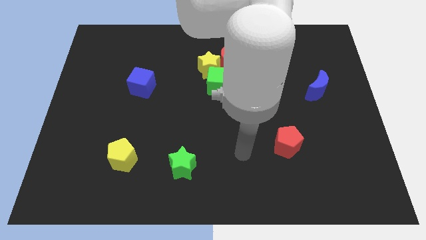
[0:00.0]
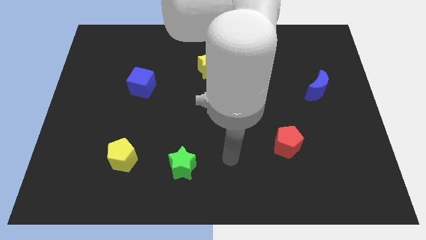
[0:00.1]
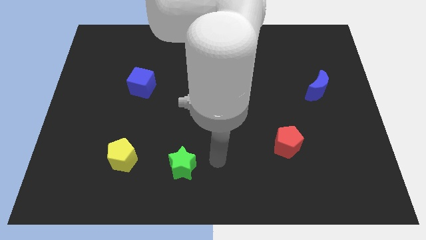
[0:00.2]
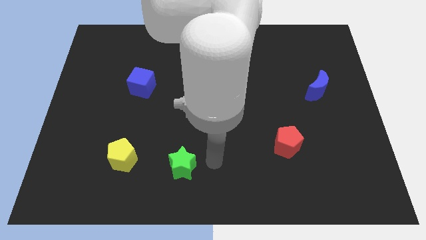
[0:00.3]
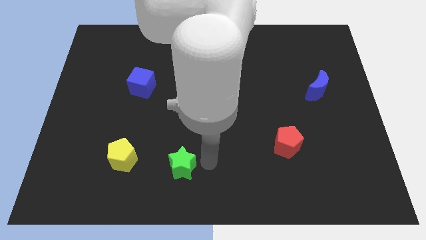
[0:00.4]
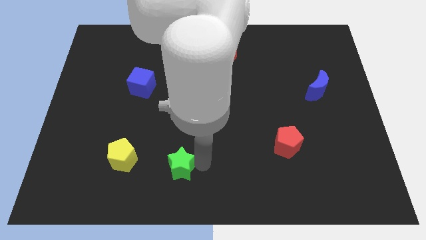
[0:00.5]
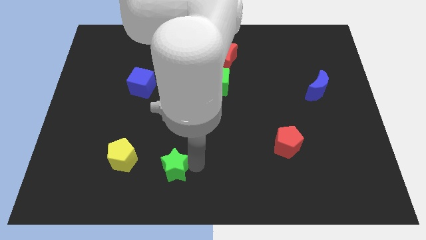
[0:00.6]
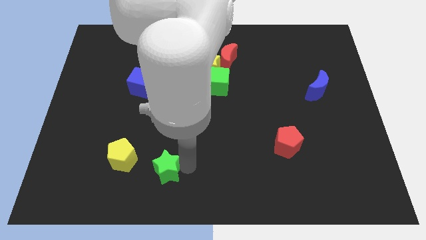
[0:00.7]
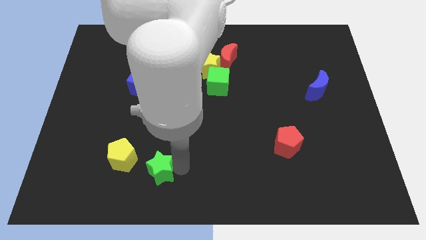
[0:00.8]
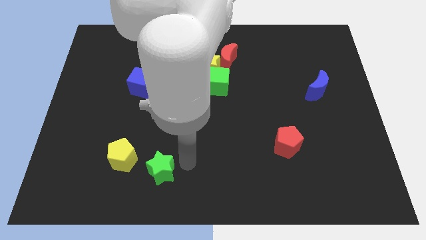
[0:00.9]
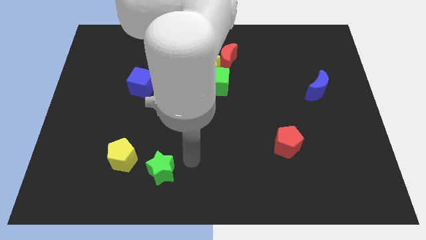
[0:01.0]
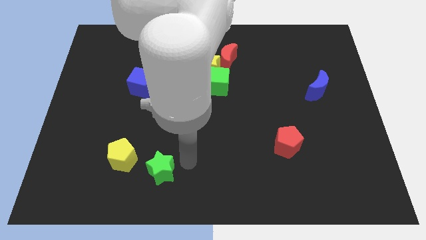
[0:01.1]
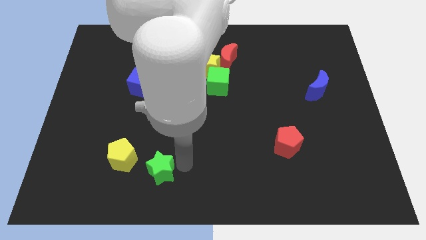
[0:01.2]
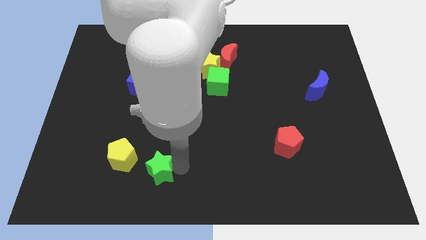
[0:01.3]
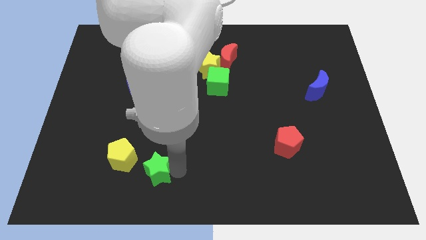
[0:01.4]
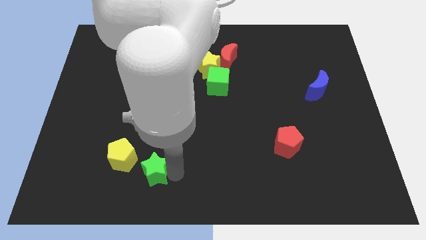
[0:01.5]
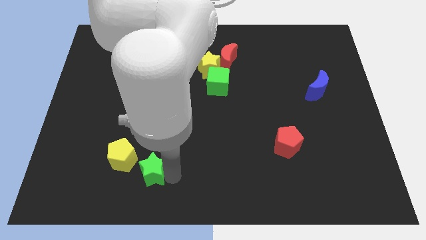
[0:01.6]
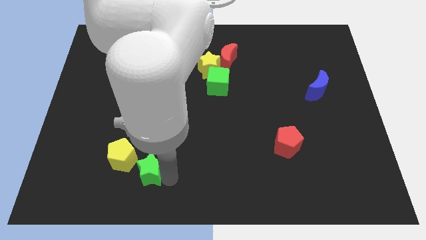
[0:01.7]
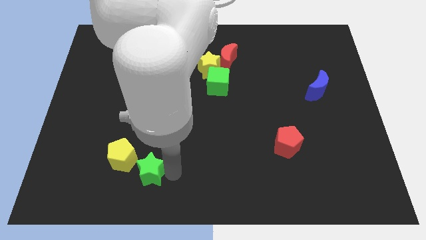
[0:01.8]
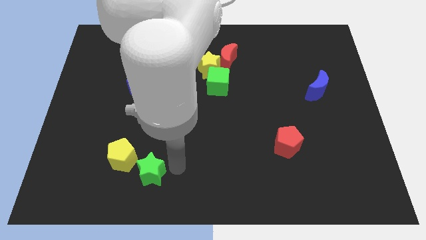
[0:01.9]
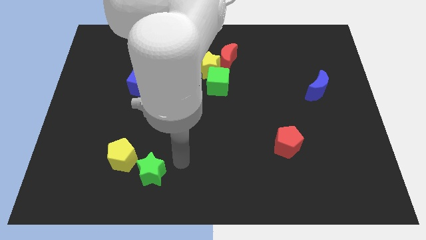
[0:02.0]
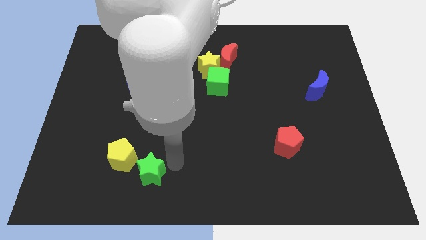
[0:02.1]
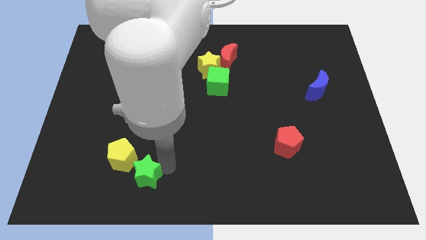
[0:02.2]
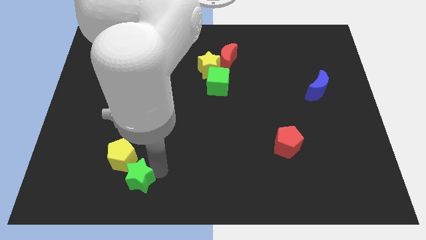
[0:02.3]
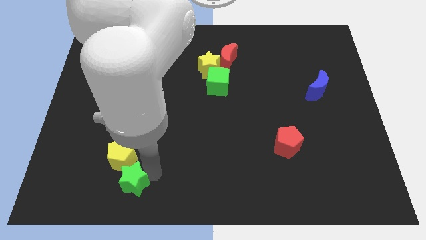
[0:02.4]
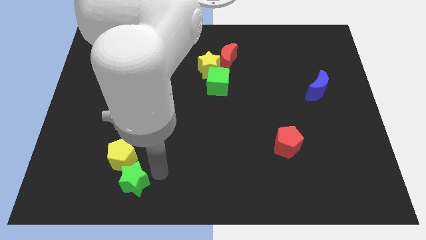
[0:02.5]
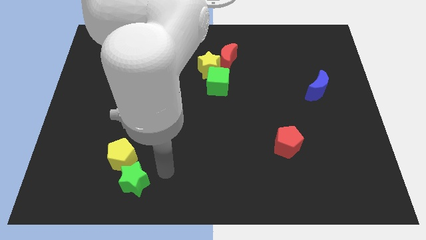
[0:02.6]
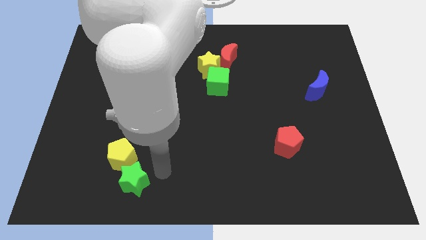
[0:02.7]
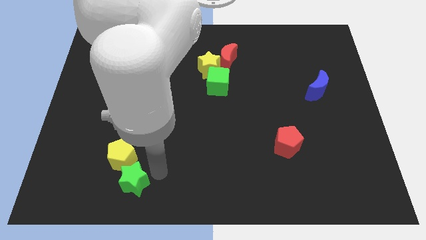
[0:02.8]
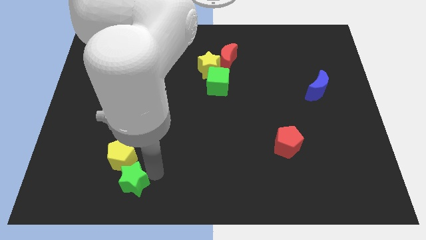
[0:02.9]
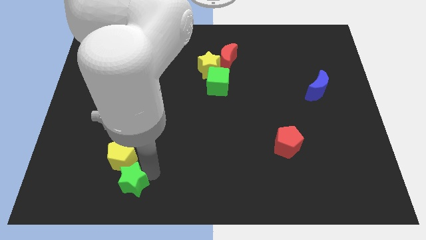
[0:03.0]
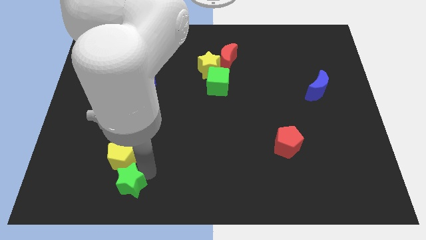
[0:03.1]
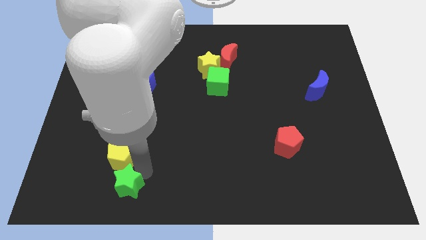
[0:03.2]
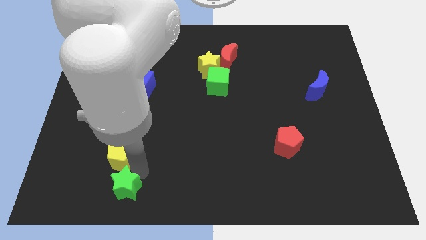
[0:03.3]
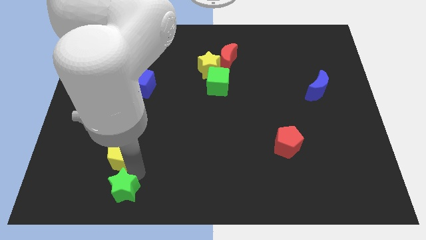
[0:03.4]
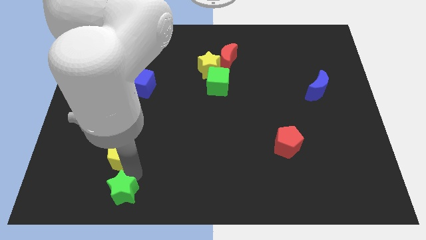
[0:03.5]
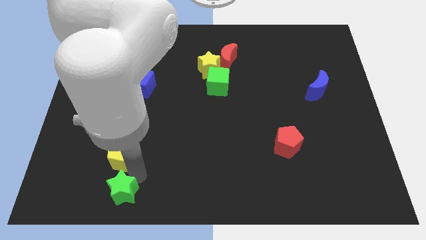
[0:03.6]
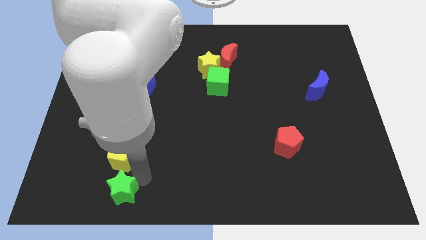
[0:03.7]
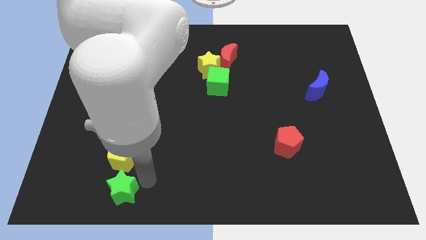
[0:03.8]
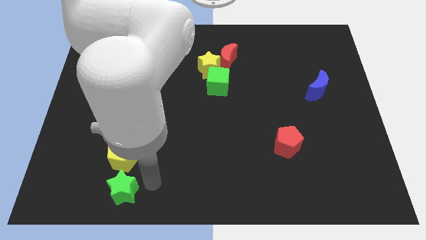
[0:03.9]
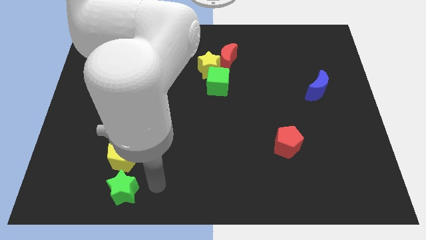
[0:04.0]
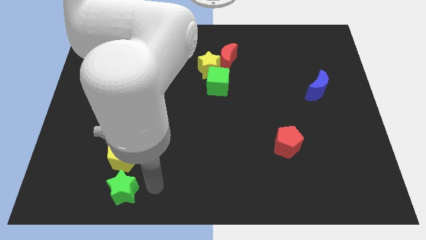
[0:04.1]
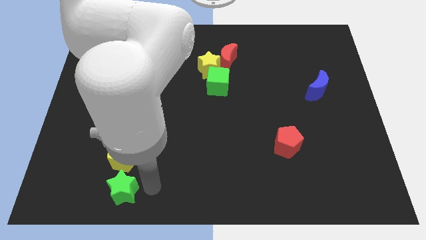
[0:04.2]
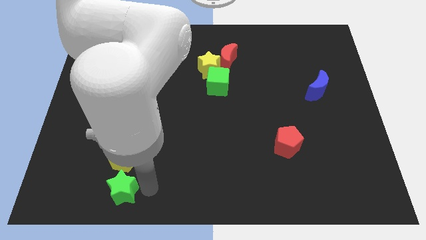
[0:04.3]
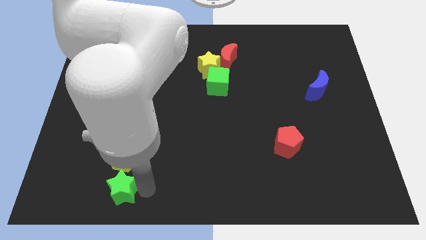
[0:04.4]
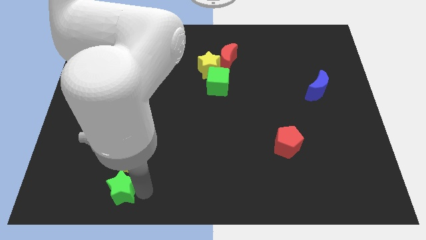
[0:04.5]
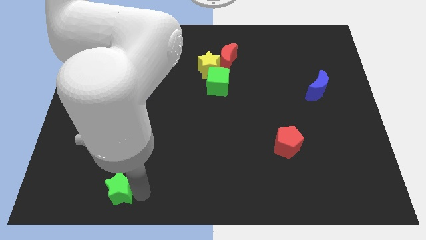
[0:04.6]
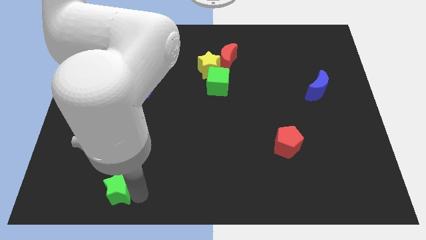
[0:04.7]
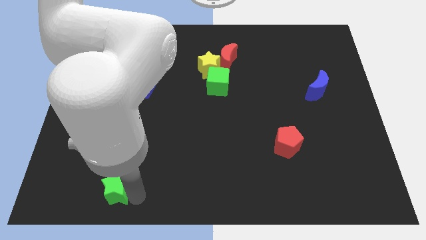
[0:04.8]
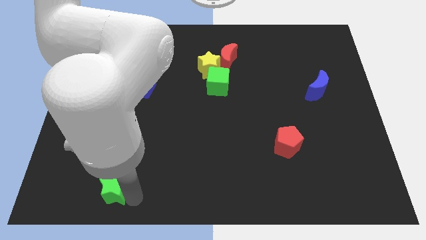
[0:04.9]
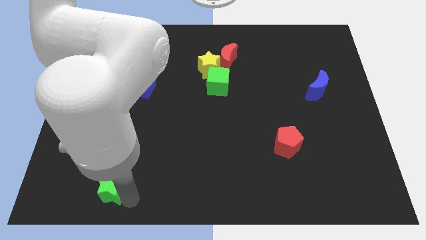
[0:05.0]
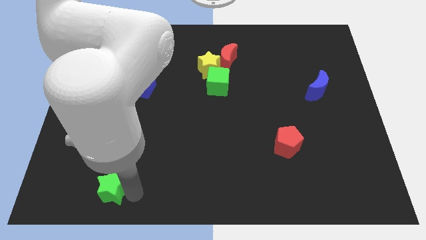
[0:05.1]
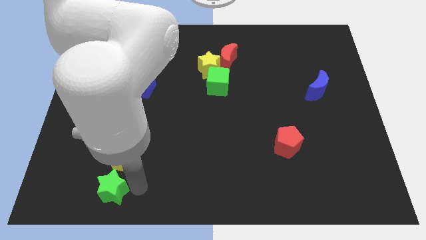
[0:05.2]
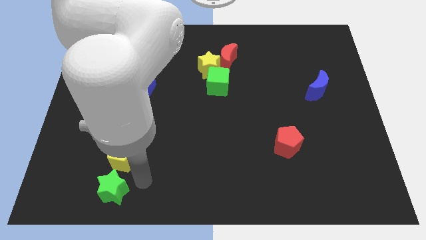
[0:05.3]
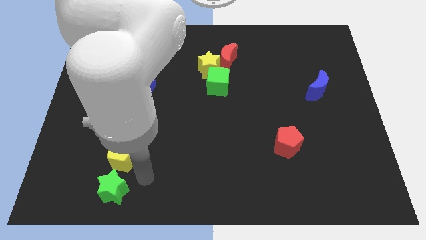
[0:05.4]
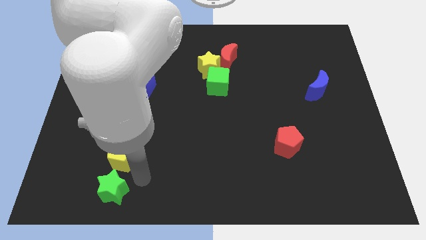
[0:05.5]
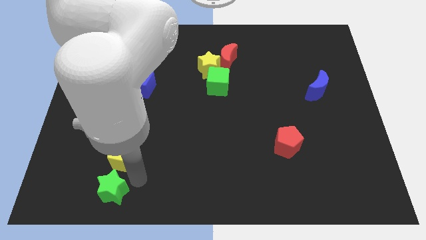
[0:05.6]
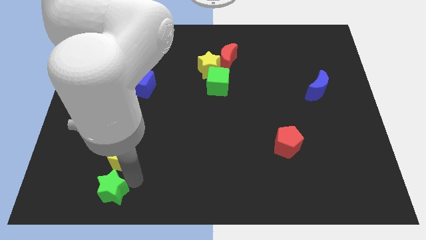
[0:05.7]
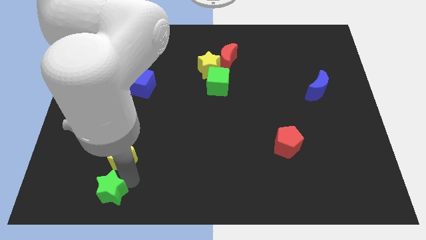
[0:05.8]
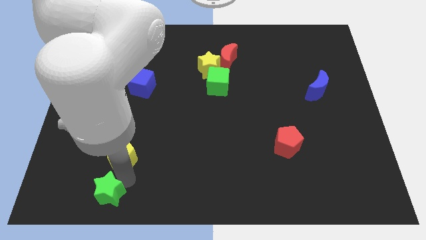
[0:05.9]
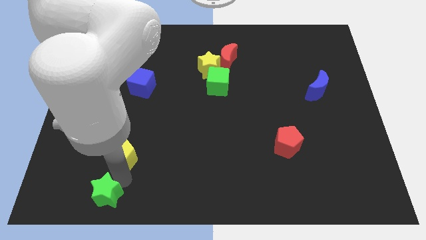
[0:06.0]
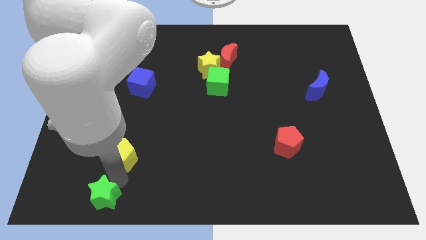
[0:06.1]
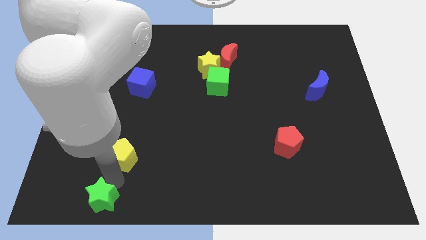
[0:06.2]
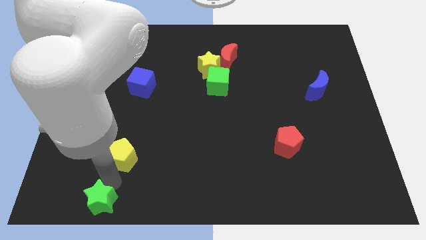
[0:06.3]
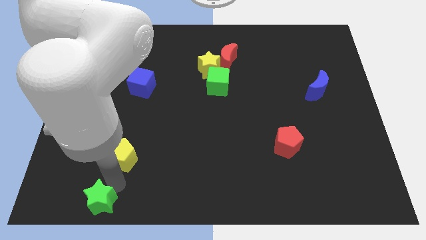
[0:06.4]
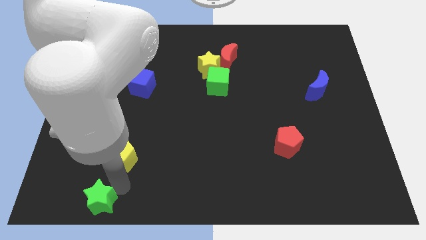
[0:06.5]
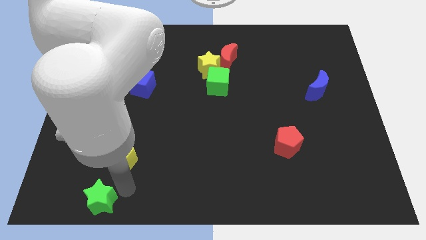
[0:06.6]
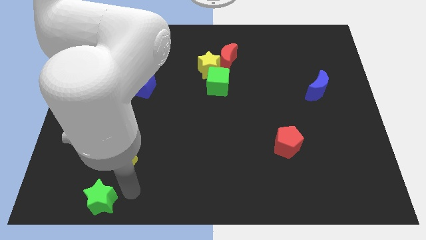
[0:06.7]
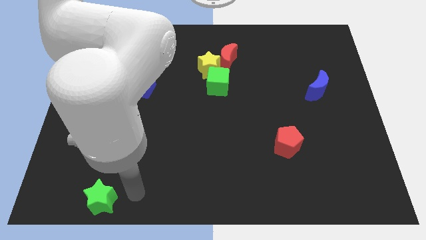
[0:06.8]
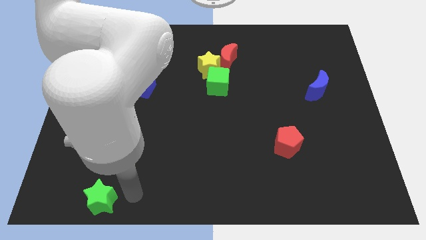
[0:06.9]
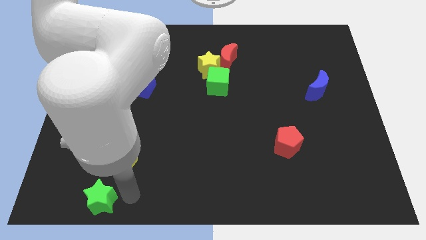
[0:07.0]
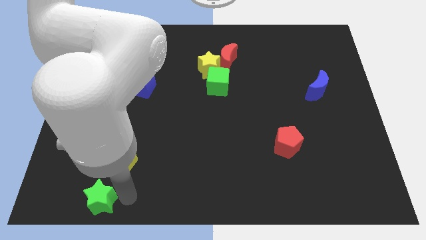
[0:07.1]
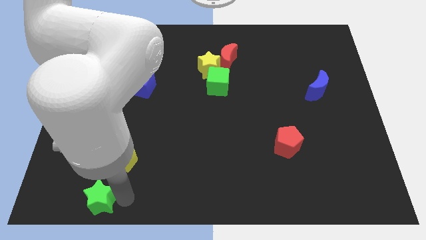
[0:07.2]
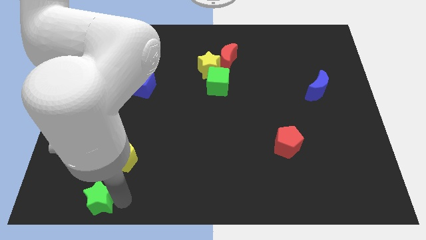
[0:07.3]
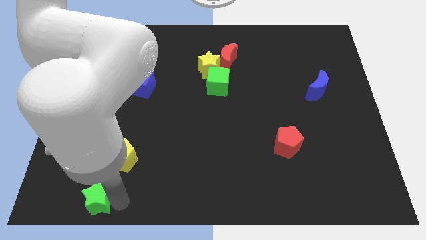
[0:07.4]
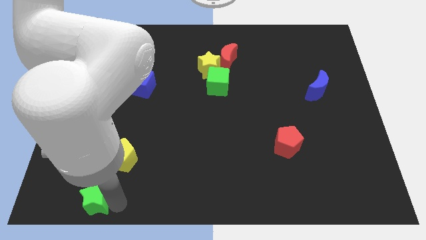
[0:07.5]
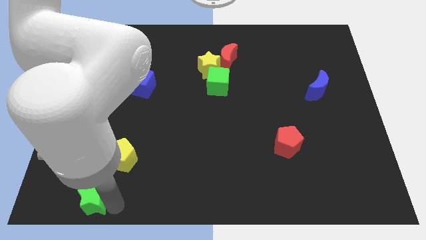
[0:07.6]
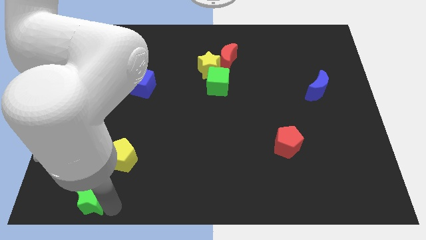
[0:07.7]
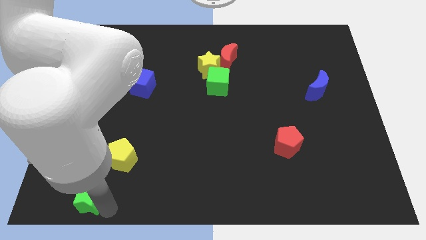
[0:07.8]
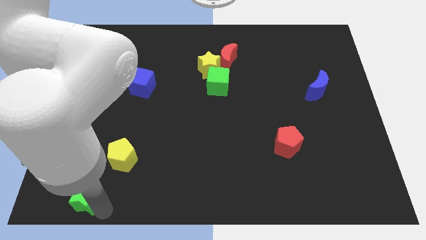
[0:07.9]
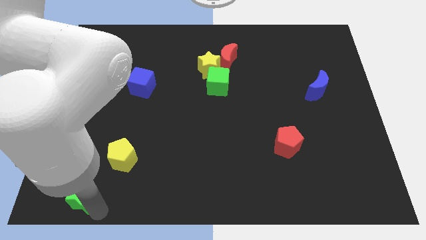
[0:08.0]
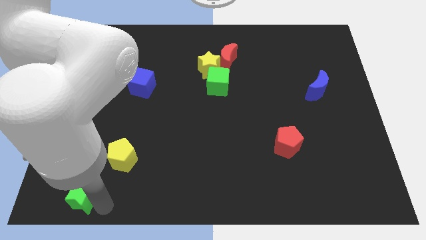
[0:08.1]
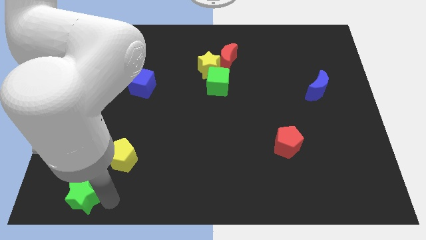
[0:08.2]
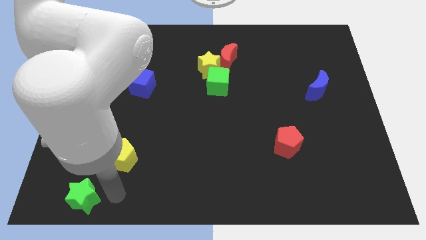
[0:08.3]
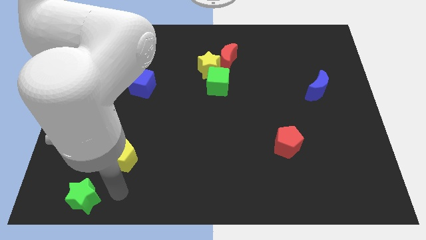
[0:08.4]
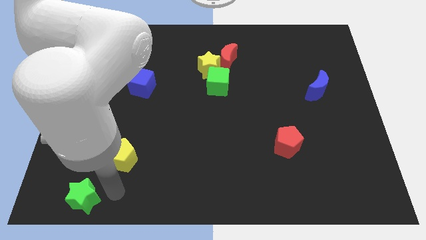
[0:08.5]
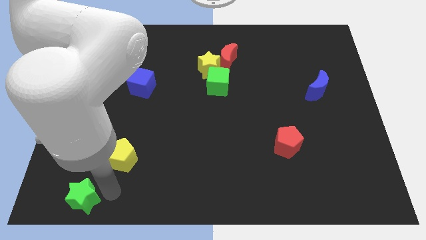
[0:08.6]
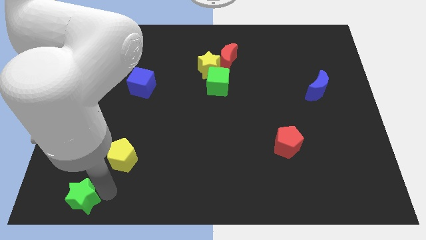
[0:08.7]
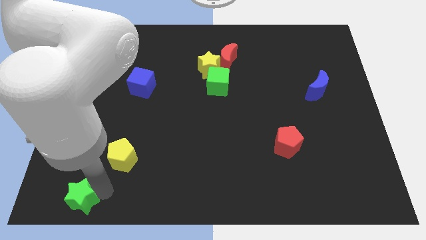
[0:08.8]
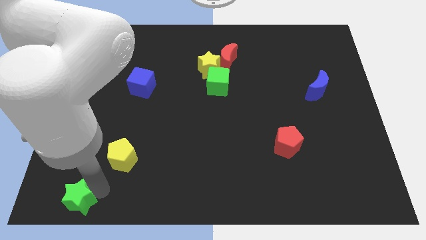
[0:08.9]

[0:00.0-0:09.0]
slide the green star to the bottom left of the board
